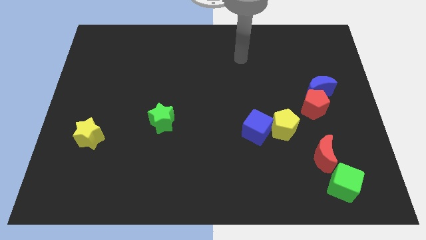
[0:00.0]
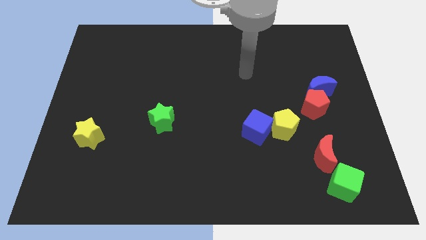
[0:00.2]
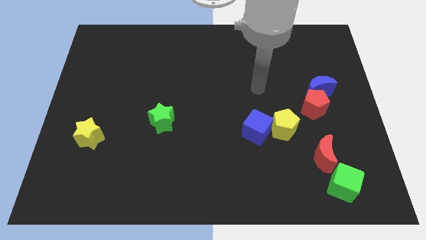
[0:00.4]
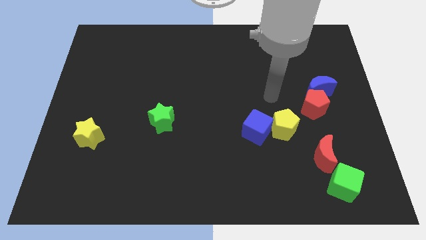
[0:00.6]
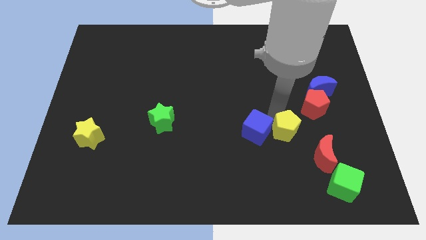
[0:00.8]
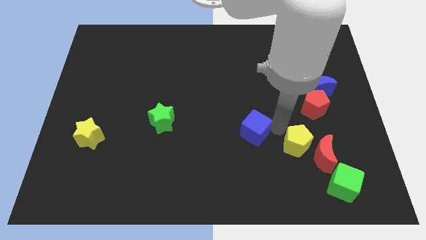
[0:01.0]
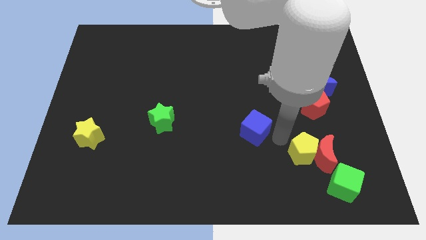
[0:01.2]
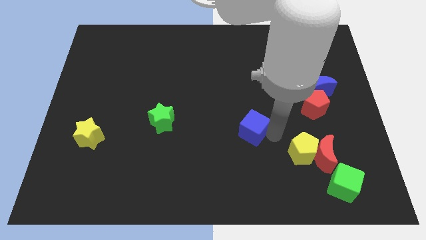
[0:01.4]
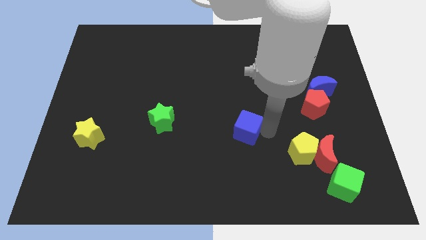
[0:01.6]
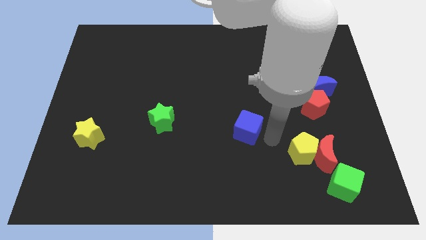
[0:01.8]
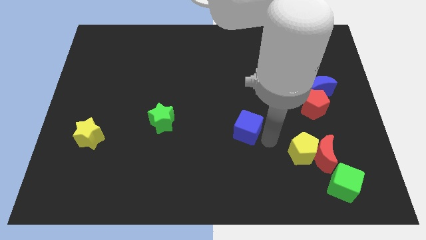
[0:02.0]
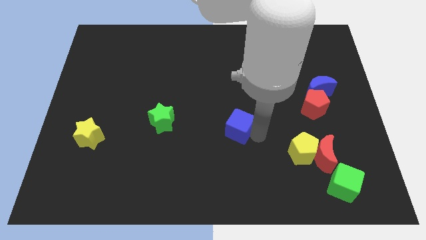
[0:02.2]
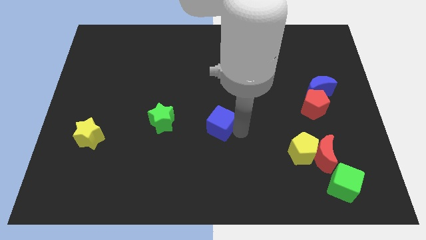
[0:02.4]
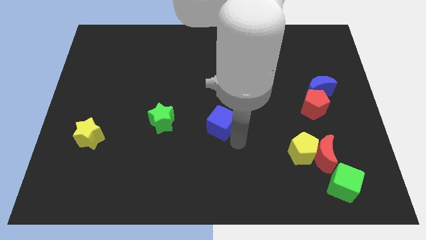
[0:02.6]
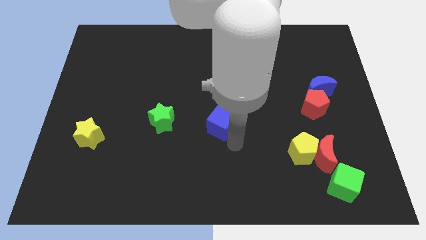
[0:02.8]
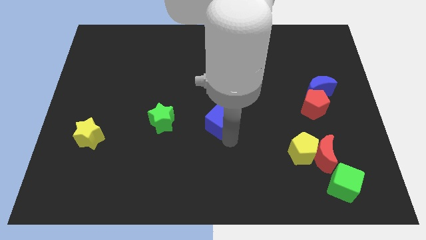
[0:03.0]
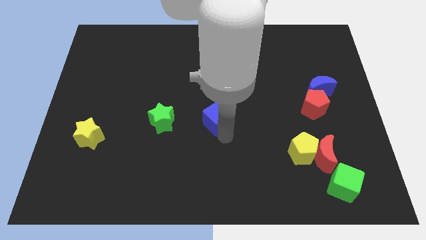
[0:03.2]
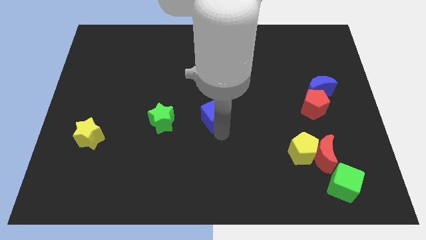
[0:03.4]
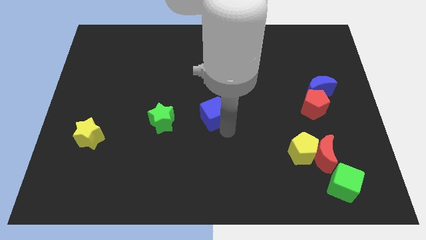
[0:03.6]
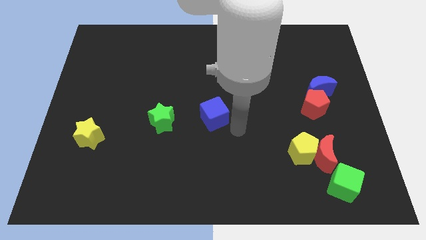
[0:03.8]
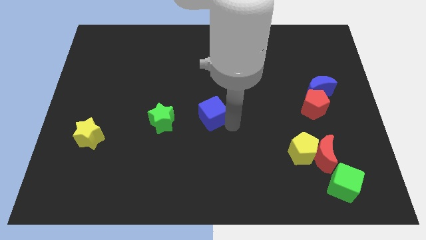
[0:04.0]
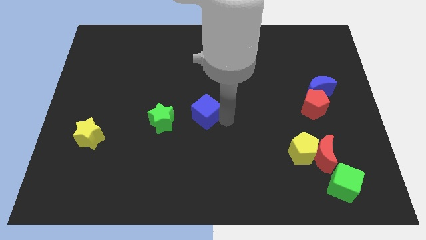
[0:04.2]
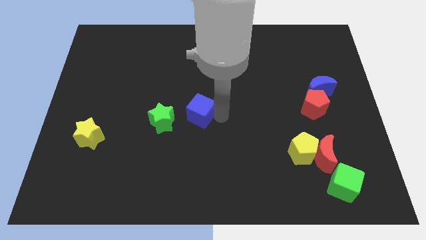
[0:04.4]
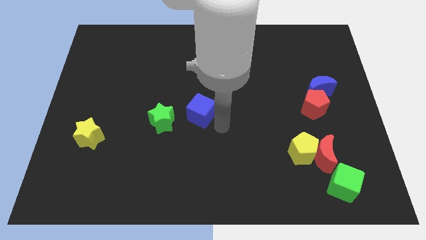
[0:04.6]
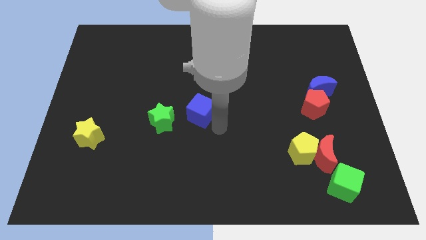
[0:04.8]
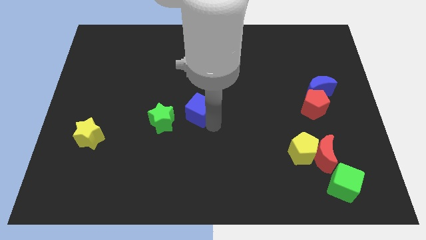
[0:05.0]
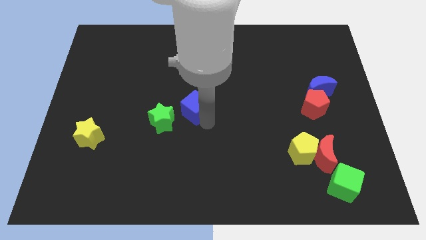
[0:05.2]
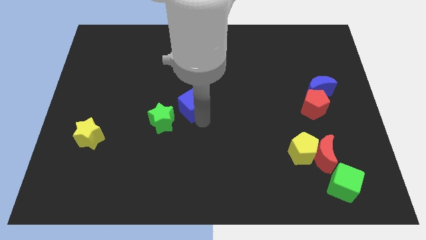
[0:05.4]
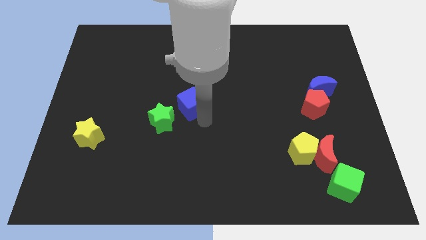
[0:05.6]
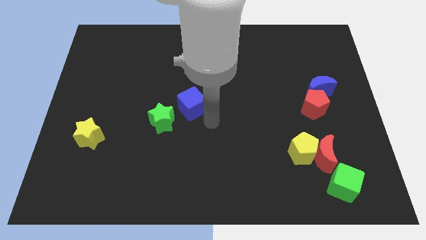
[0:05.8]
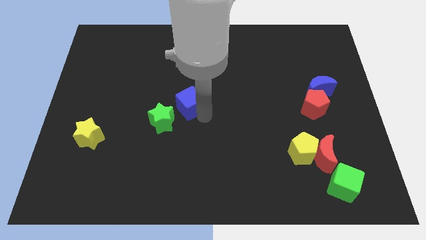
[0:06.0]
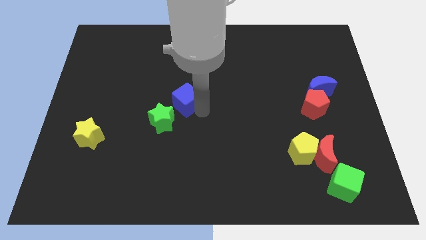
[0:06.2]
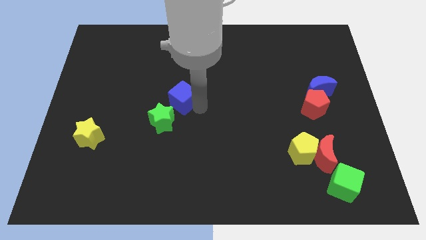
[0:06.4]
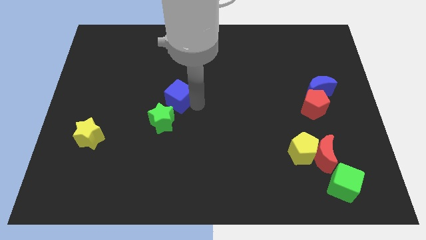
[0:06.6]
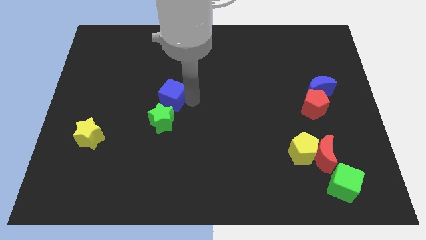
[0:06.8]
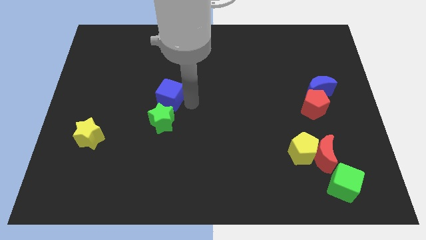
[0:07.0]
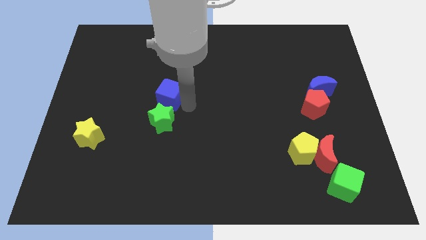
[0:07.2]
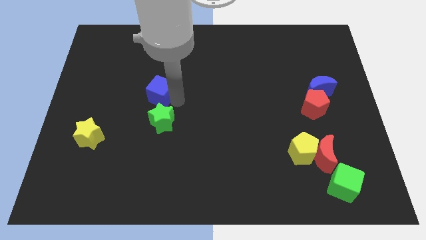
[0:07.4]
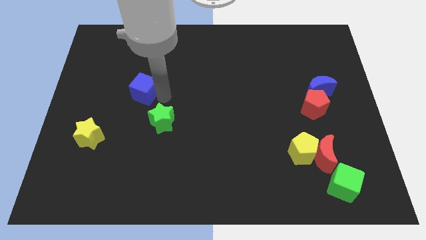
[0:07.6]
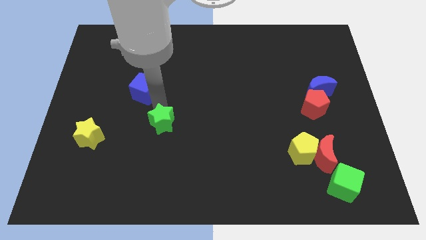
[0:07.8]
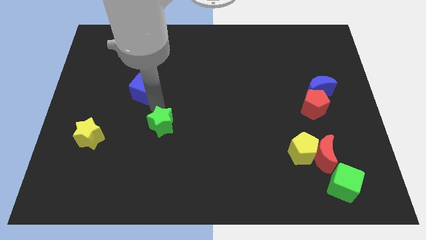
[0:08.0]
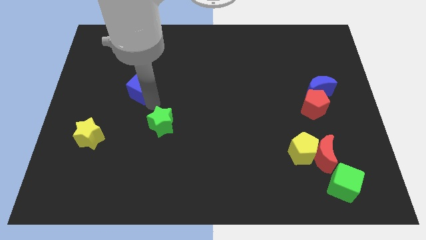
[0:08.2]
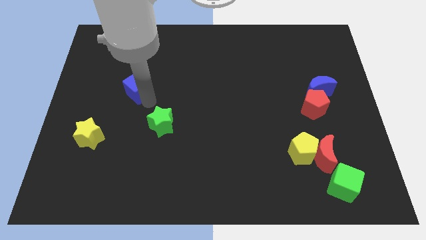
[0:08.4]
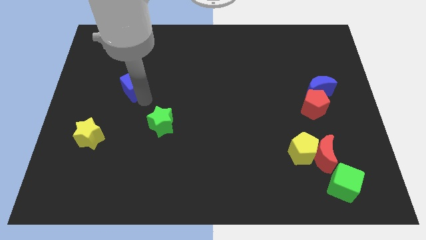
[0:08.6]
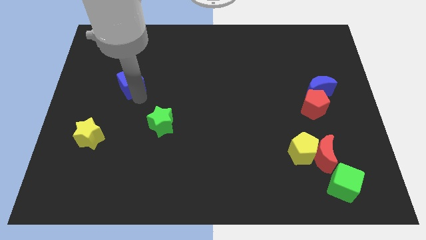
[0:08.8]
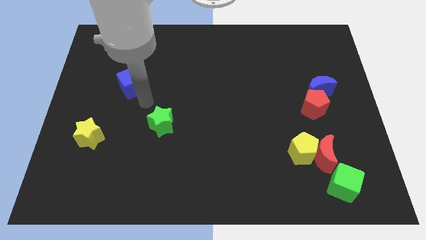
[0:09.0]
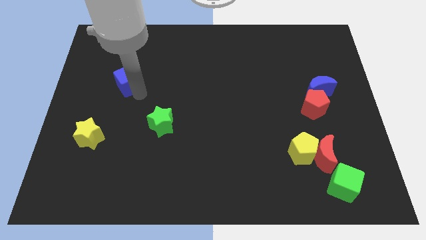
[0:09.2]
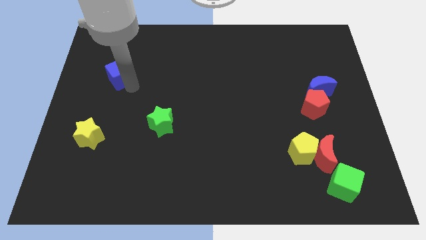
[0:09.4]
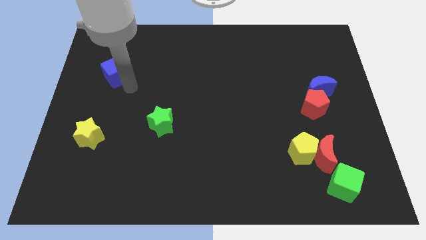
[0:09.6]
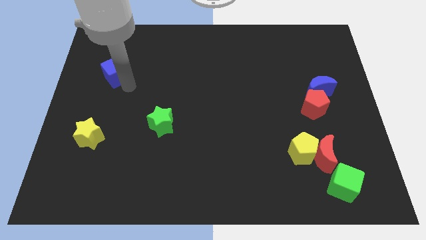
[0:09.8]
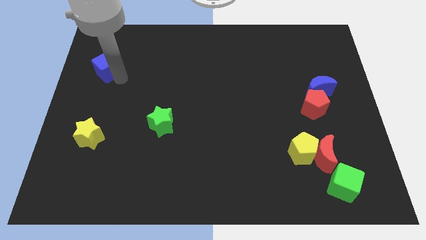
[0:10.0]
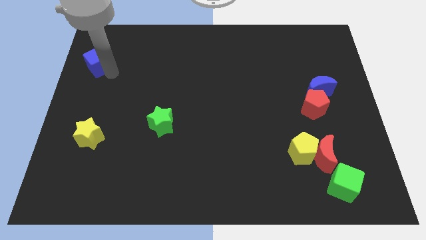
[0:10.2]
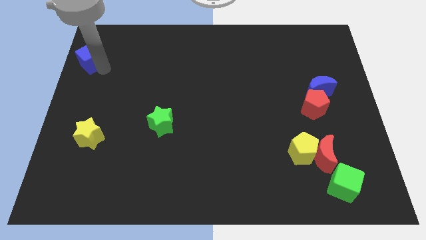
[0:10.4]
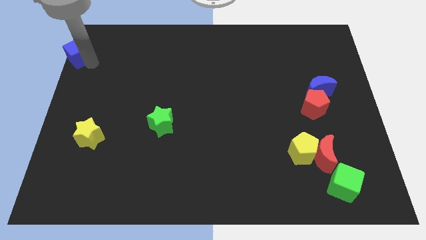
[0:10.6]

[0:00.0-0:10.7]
move the blue cube to the top left of the board

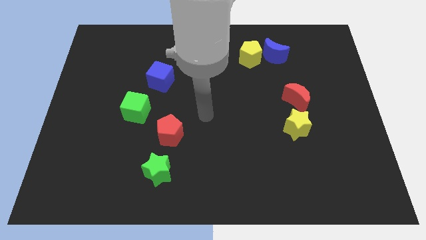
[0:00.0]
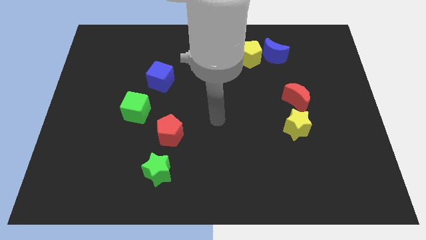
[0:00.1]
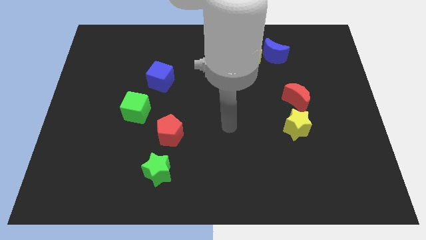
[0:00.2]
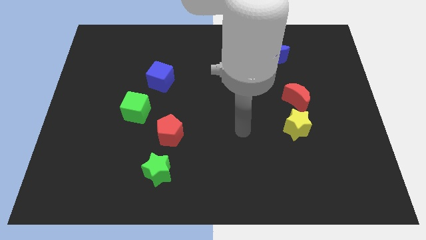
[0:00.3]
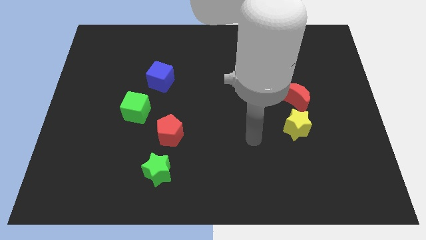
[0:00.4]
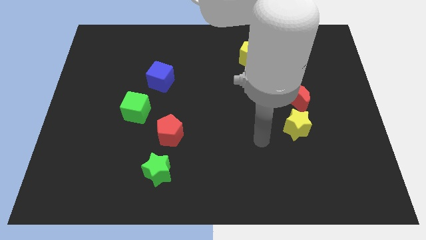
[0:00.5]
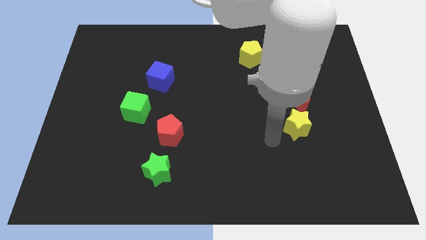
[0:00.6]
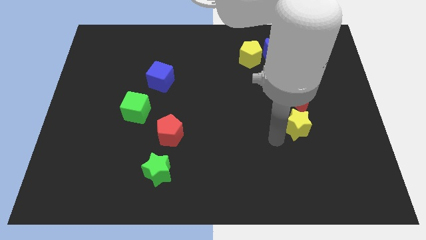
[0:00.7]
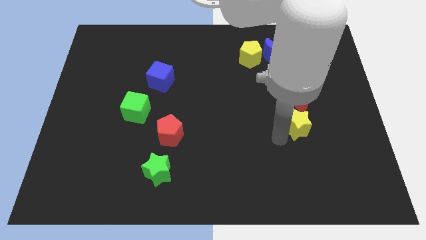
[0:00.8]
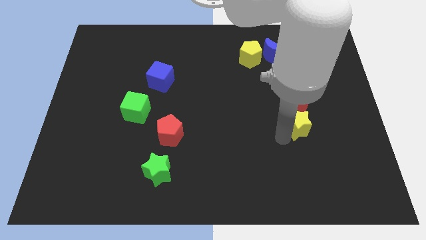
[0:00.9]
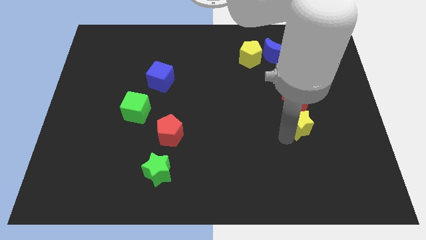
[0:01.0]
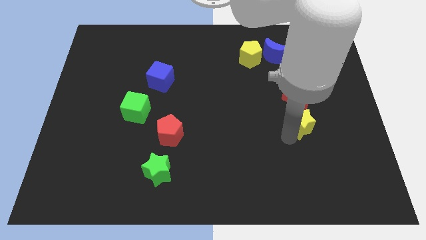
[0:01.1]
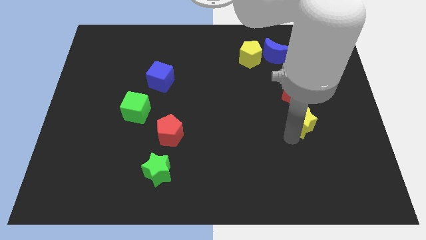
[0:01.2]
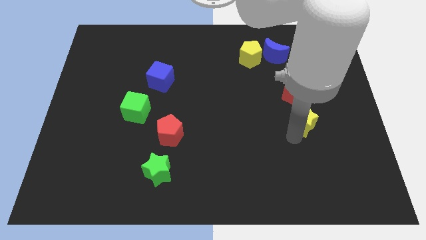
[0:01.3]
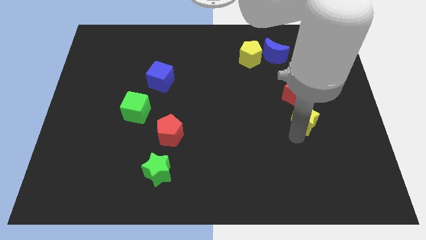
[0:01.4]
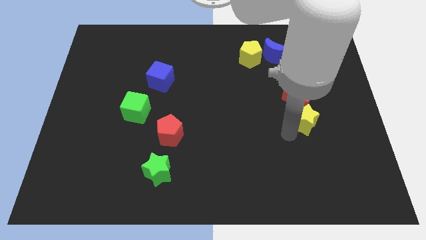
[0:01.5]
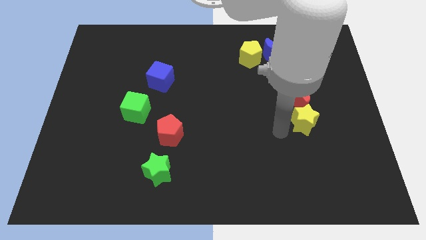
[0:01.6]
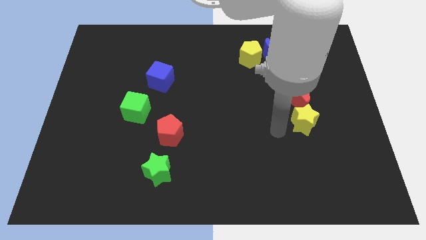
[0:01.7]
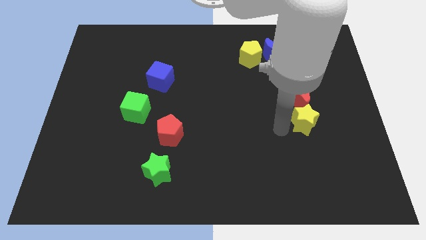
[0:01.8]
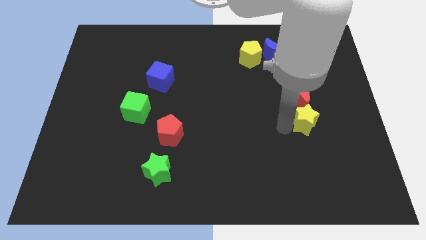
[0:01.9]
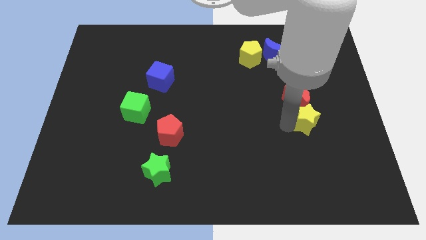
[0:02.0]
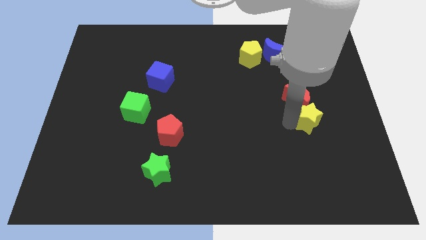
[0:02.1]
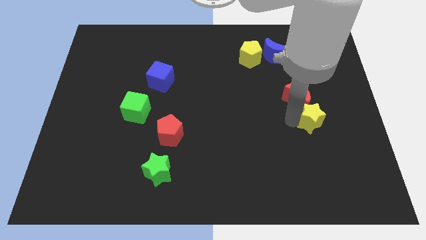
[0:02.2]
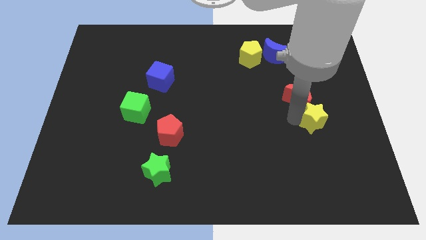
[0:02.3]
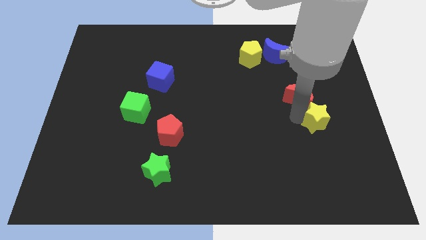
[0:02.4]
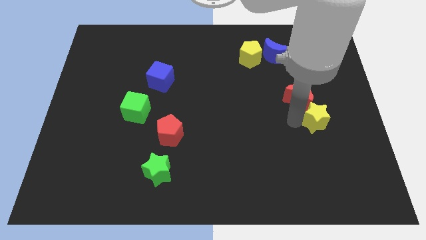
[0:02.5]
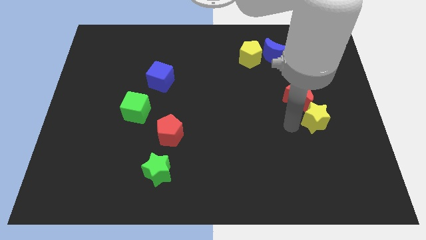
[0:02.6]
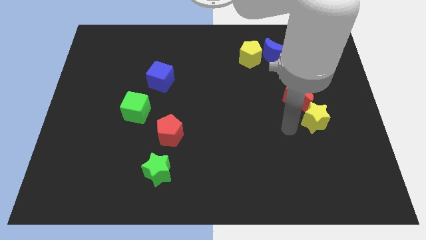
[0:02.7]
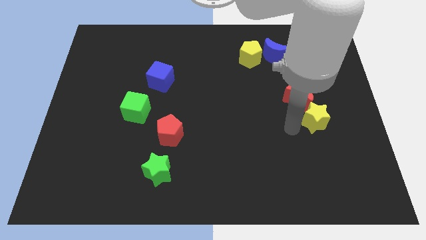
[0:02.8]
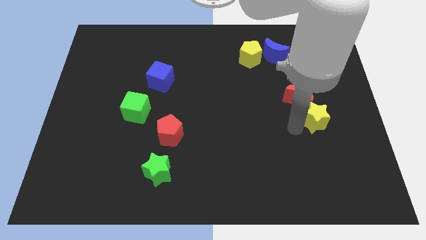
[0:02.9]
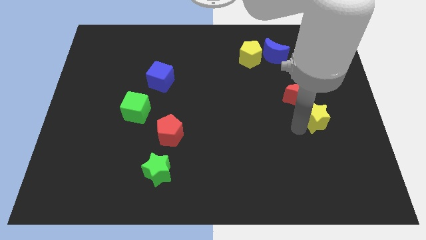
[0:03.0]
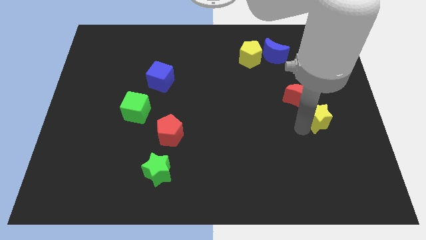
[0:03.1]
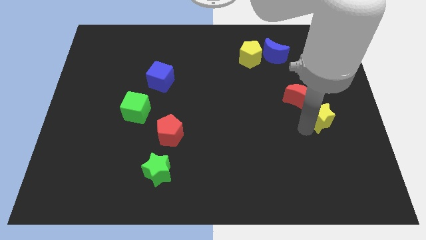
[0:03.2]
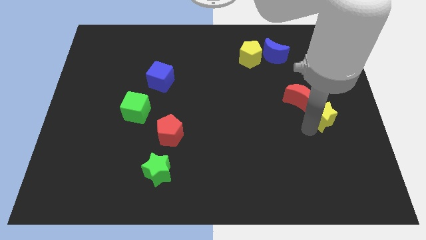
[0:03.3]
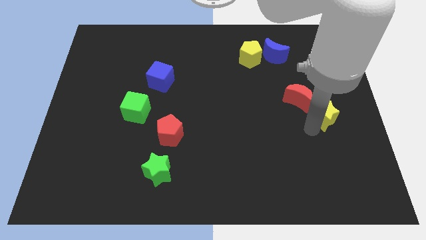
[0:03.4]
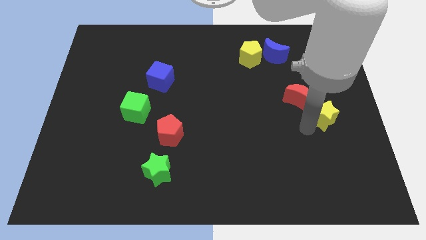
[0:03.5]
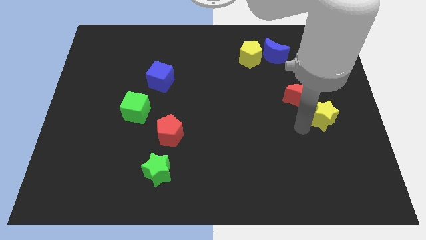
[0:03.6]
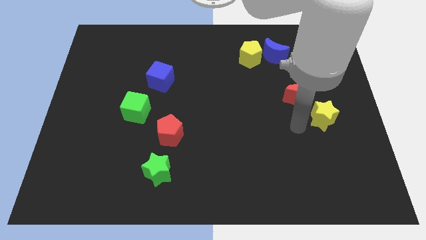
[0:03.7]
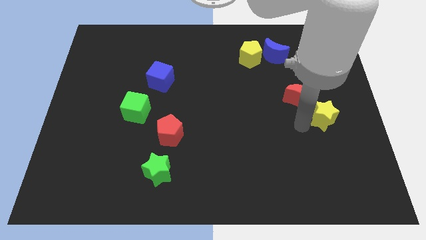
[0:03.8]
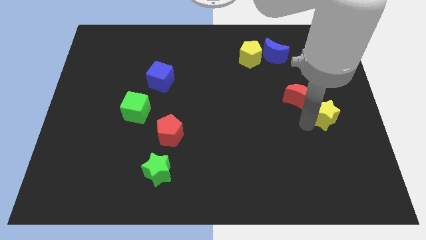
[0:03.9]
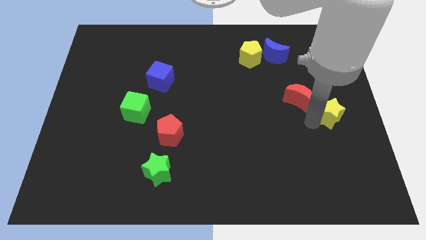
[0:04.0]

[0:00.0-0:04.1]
put the yellow star to the center right
